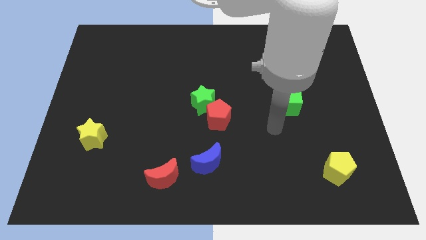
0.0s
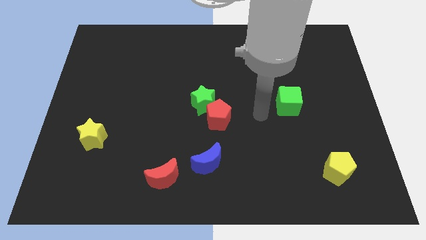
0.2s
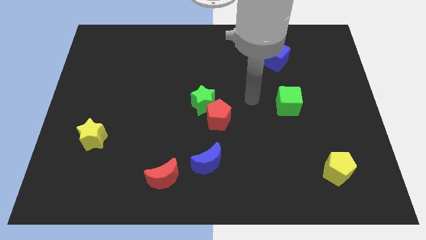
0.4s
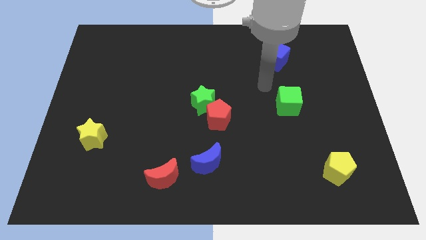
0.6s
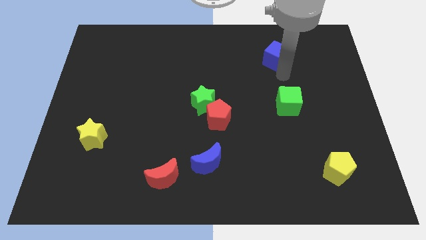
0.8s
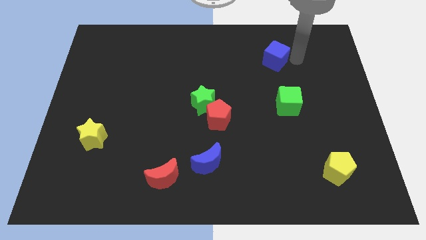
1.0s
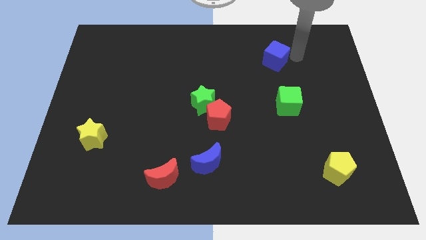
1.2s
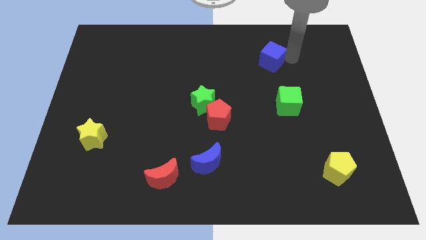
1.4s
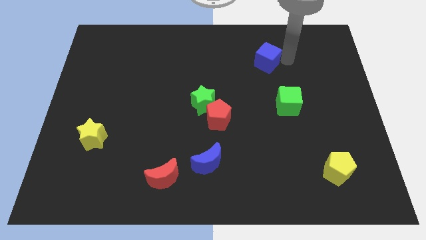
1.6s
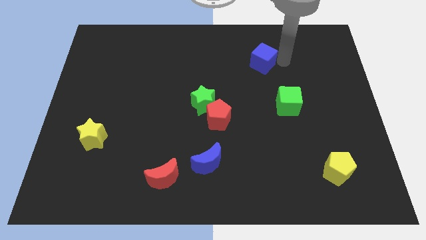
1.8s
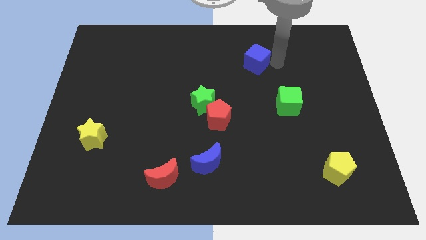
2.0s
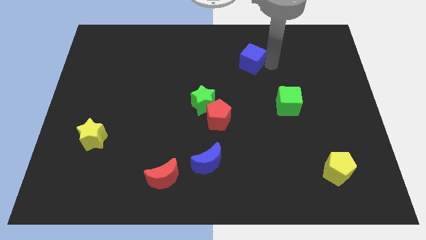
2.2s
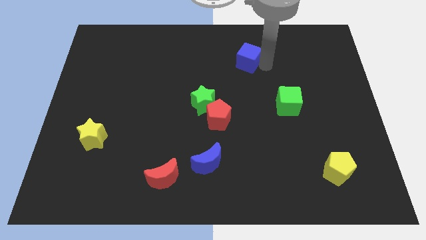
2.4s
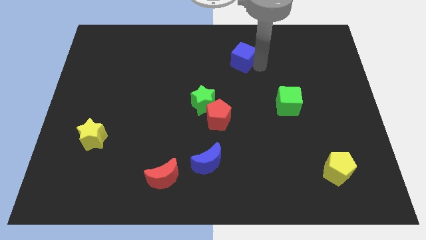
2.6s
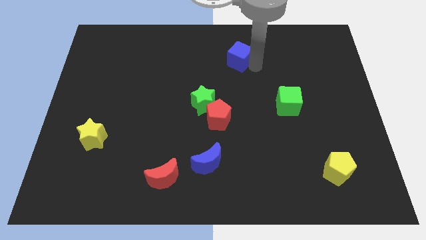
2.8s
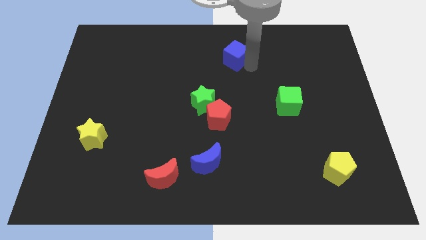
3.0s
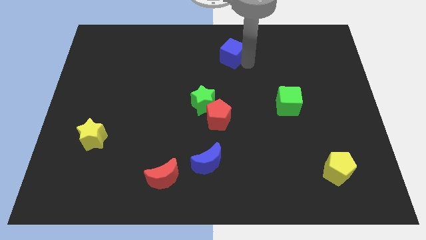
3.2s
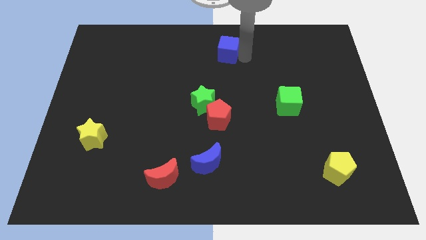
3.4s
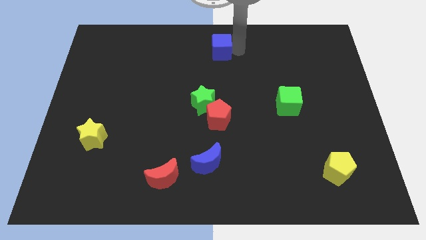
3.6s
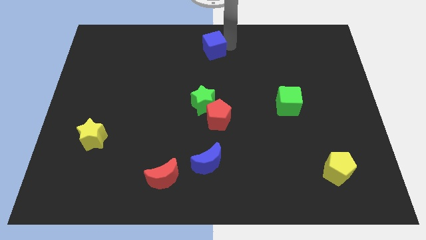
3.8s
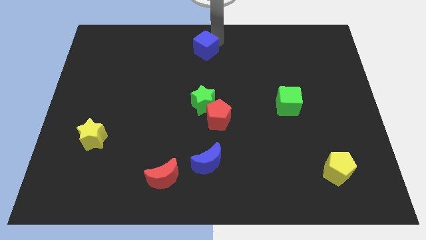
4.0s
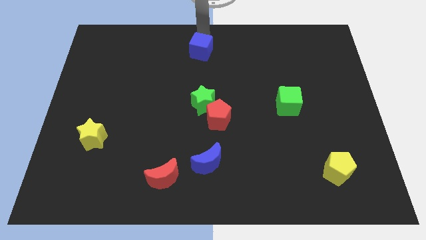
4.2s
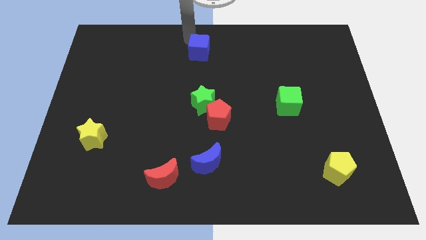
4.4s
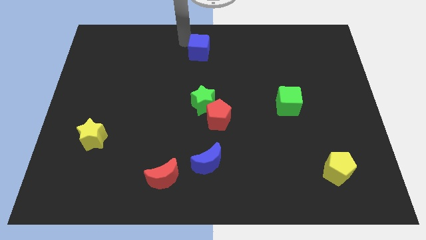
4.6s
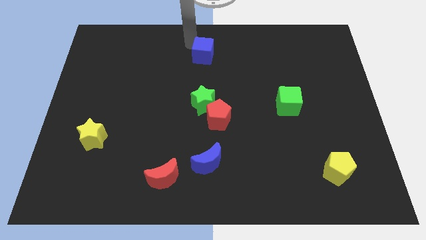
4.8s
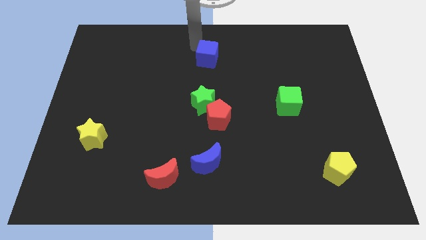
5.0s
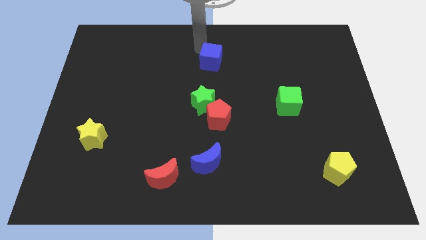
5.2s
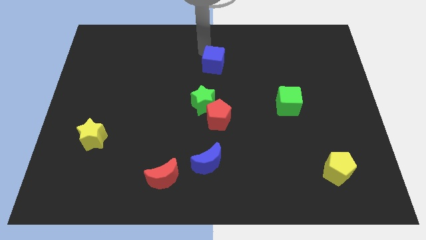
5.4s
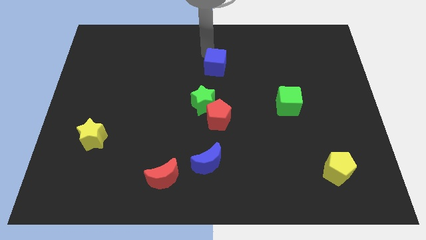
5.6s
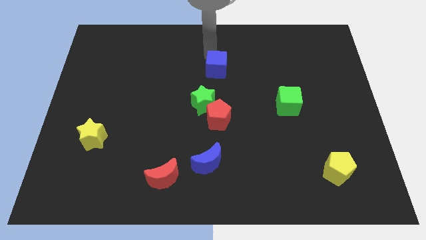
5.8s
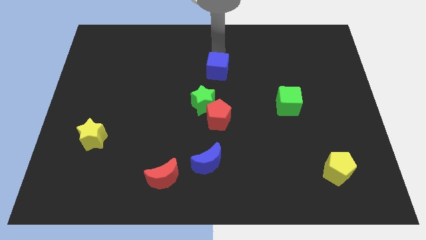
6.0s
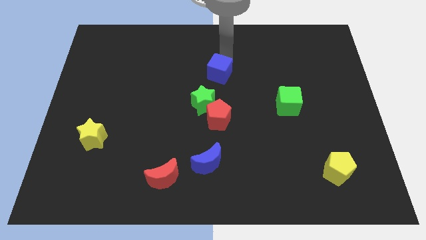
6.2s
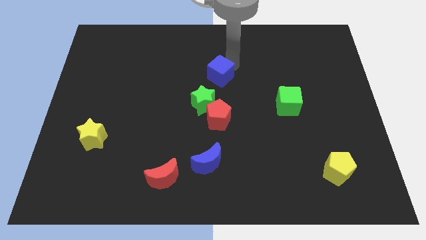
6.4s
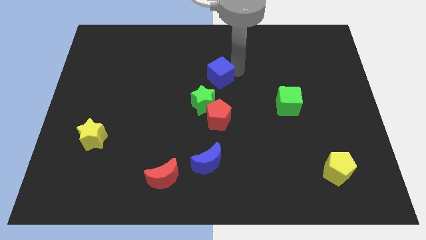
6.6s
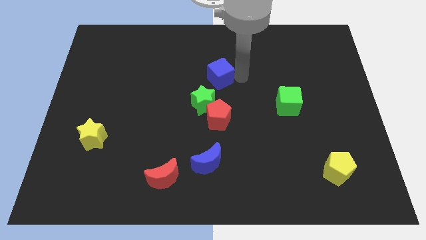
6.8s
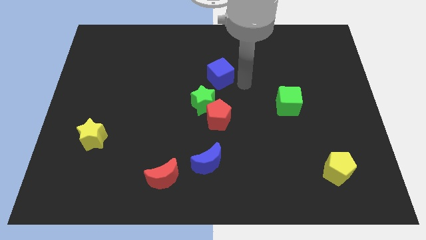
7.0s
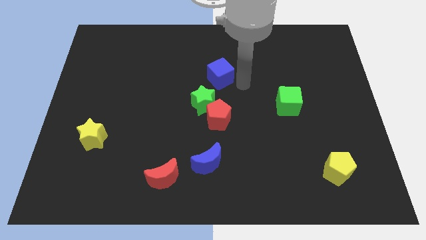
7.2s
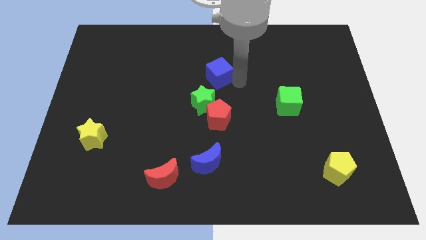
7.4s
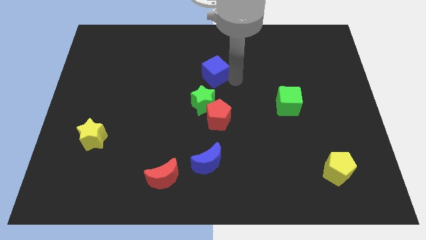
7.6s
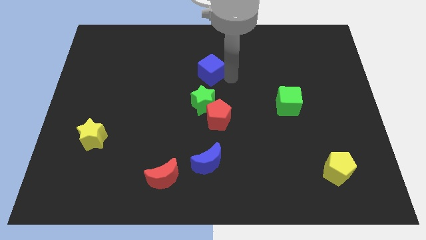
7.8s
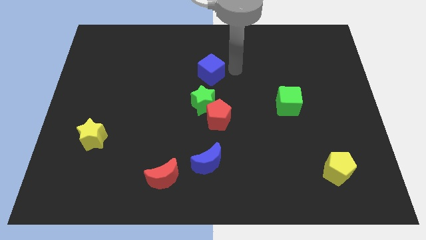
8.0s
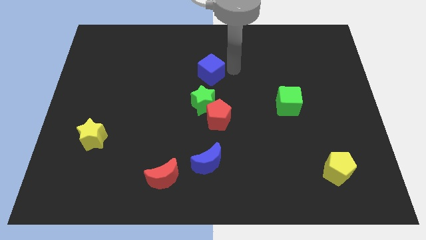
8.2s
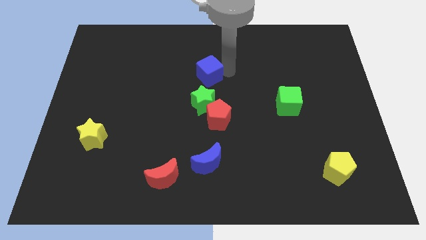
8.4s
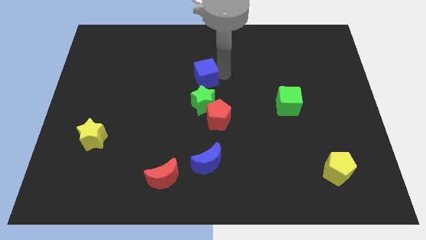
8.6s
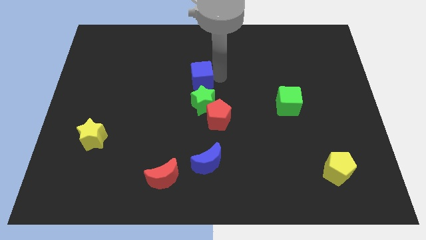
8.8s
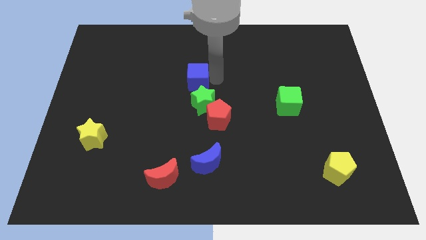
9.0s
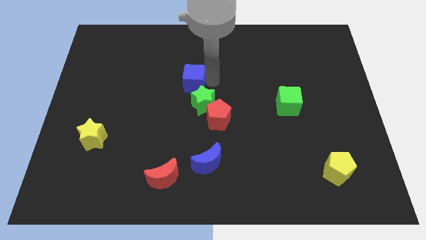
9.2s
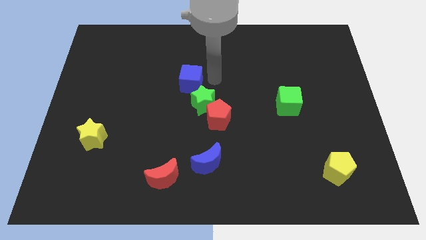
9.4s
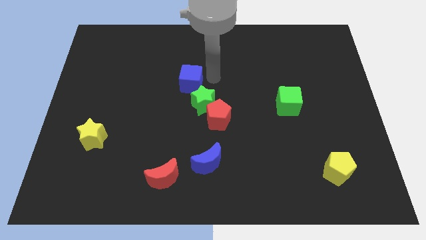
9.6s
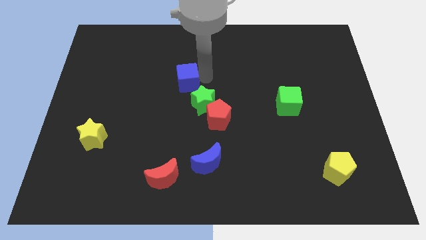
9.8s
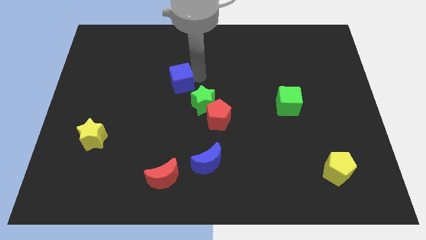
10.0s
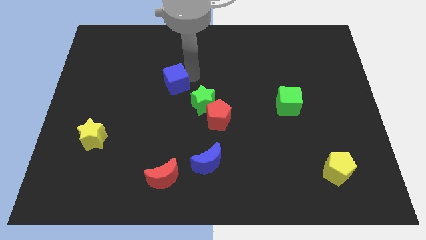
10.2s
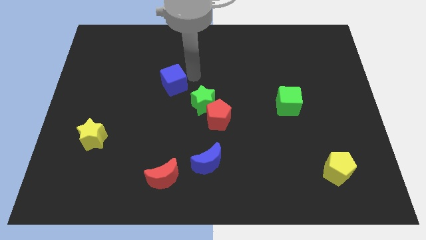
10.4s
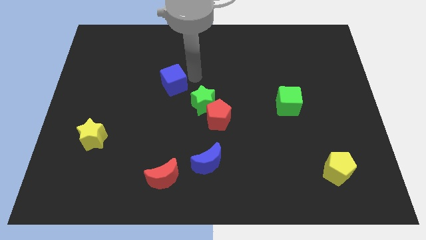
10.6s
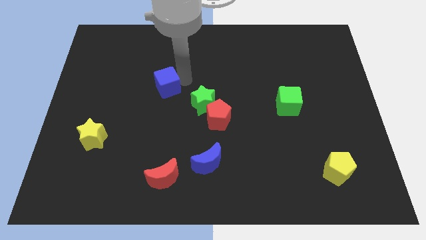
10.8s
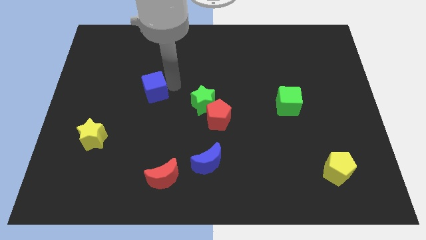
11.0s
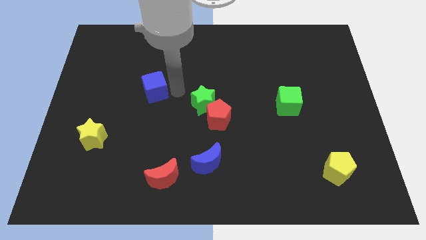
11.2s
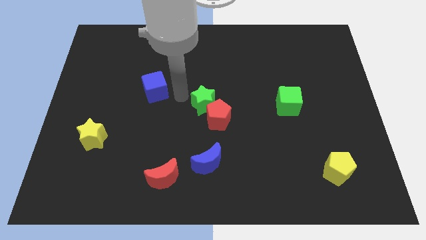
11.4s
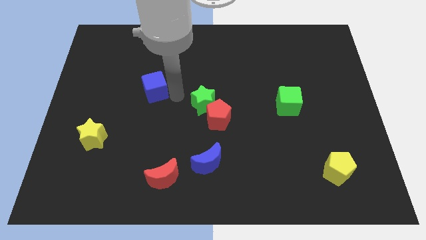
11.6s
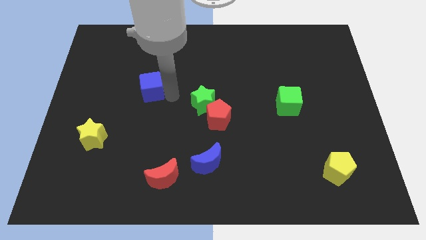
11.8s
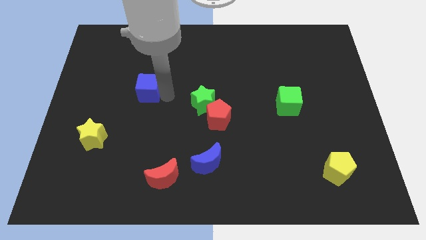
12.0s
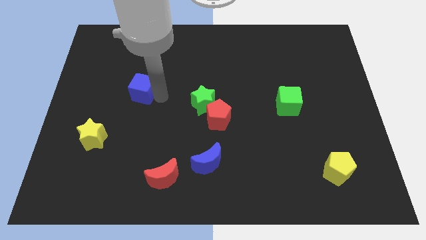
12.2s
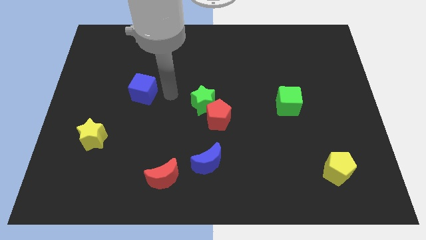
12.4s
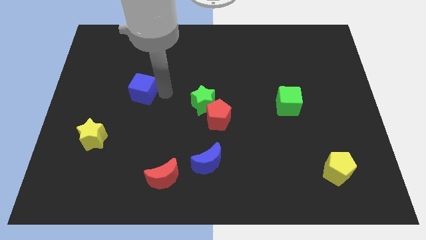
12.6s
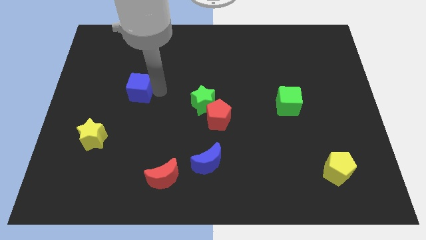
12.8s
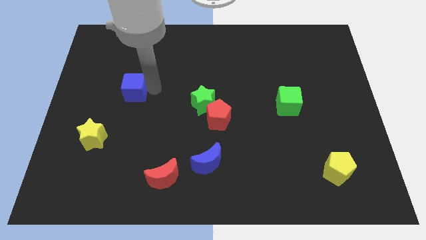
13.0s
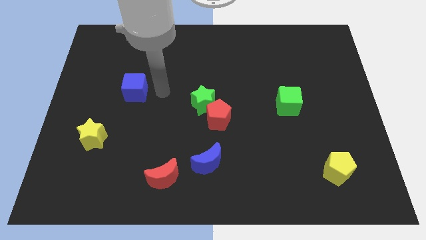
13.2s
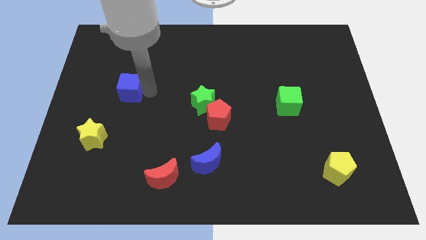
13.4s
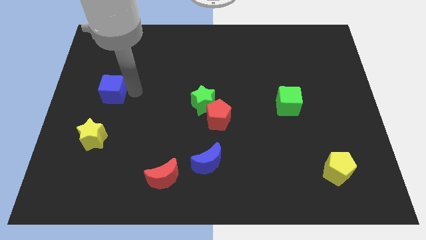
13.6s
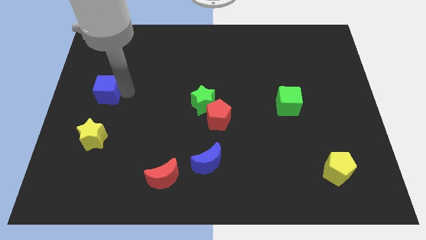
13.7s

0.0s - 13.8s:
put the blue cube to the left side of the board
